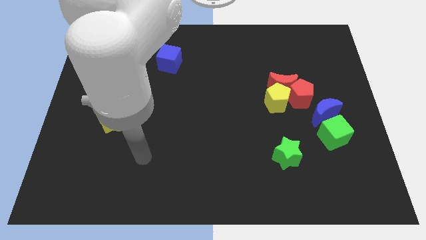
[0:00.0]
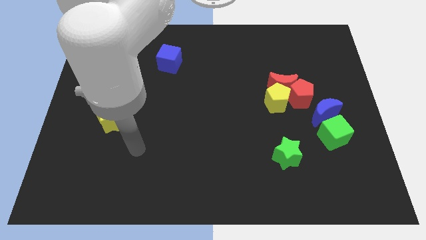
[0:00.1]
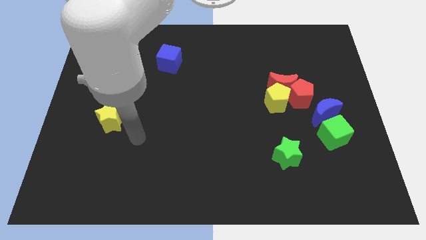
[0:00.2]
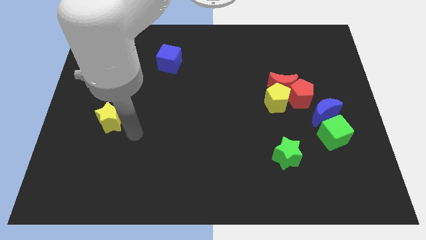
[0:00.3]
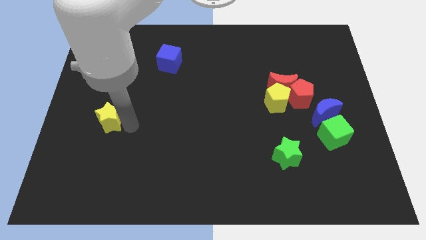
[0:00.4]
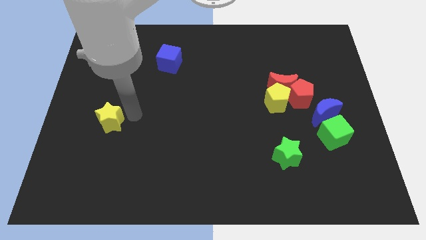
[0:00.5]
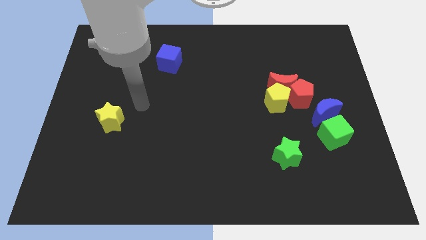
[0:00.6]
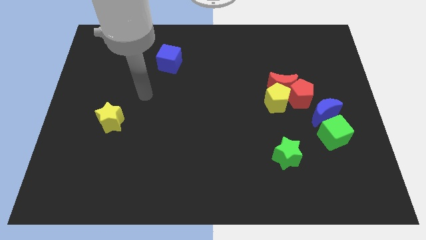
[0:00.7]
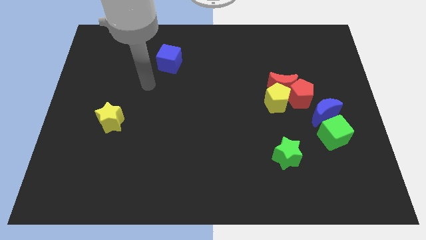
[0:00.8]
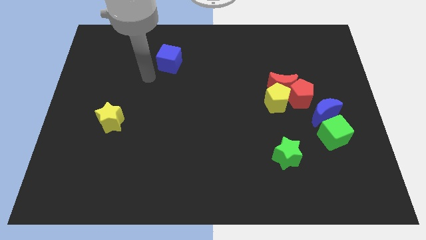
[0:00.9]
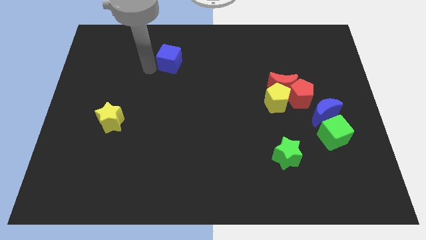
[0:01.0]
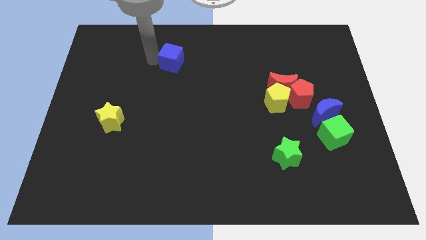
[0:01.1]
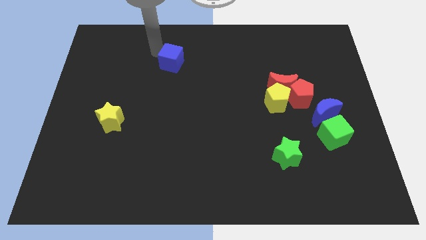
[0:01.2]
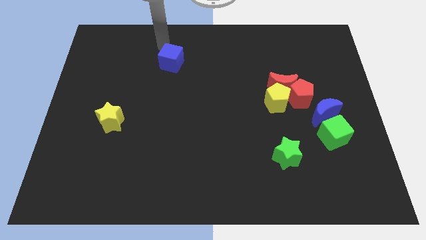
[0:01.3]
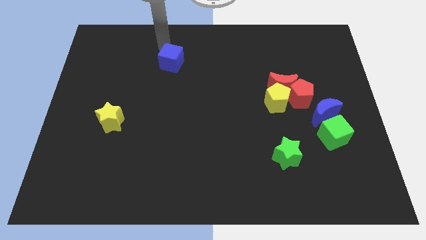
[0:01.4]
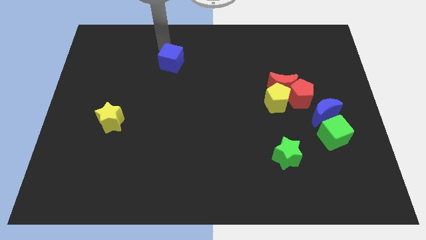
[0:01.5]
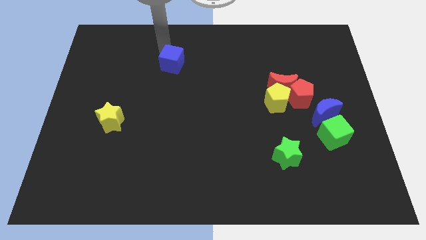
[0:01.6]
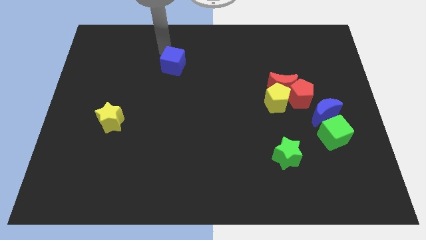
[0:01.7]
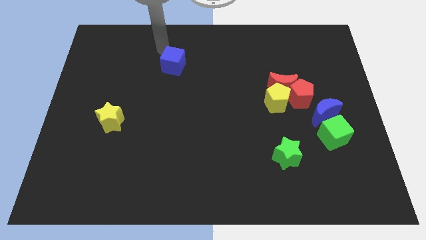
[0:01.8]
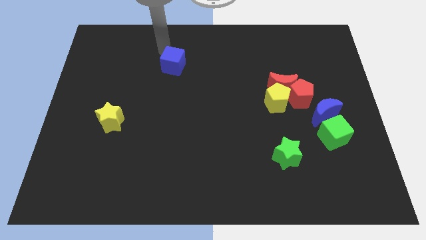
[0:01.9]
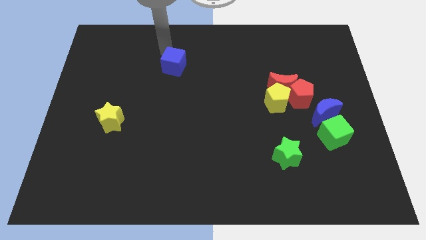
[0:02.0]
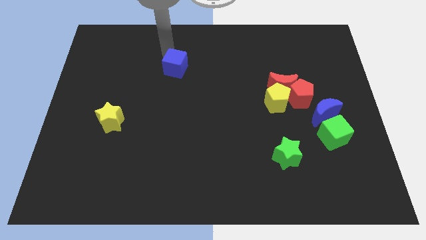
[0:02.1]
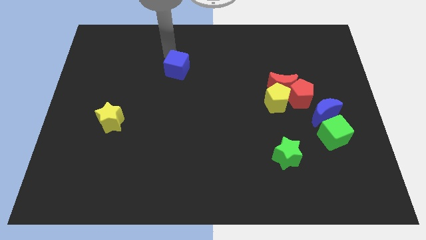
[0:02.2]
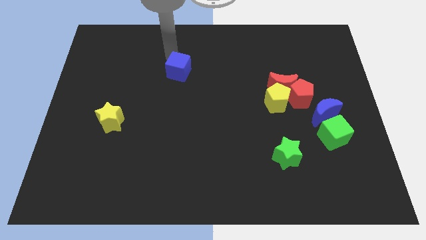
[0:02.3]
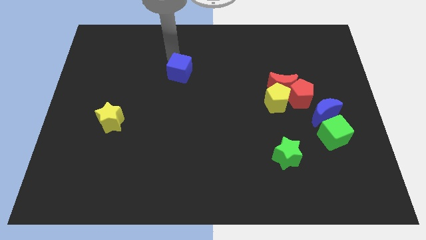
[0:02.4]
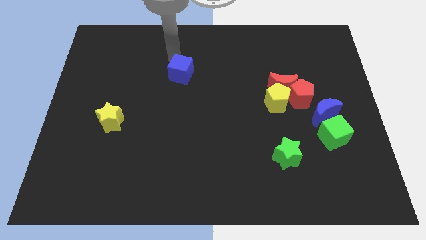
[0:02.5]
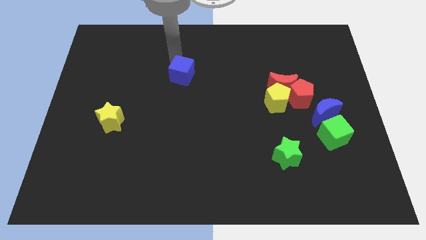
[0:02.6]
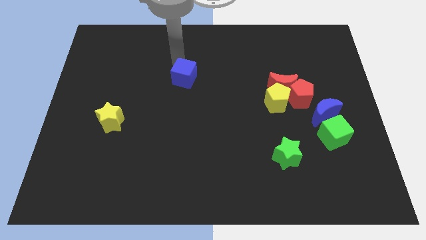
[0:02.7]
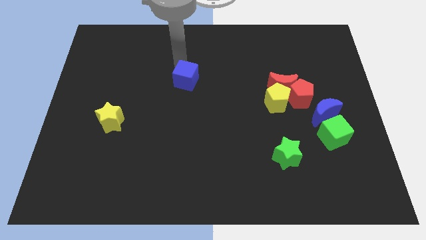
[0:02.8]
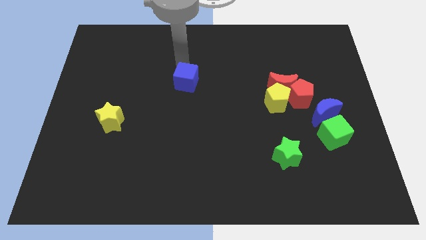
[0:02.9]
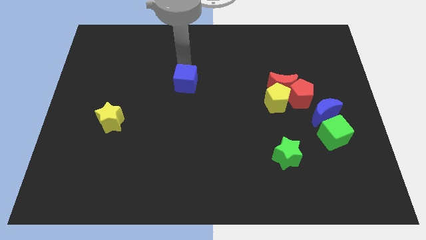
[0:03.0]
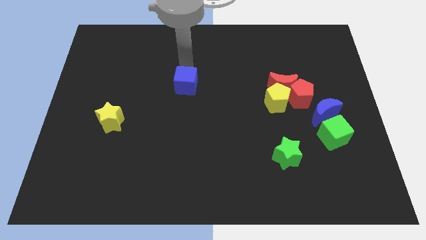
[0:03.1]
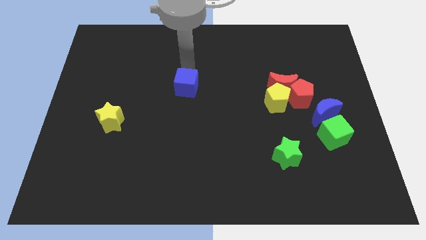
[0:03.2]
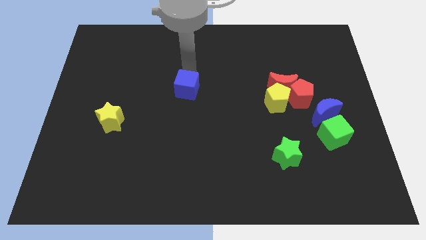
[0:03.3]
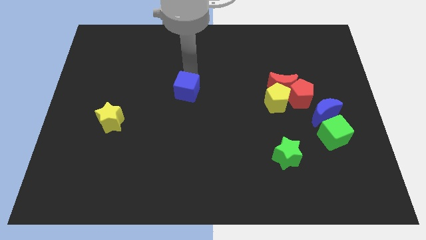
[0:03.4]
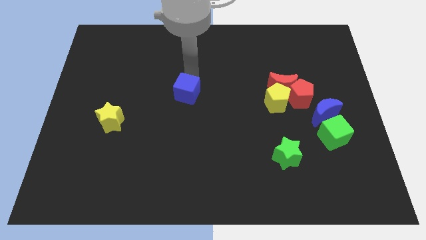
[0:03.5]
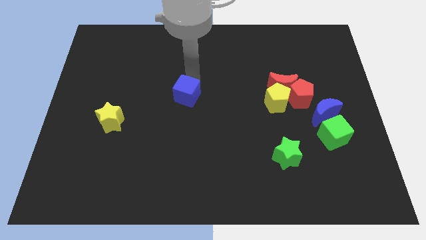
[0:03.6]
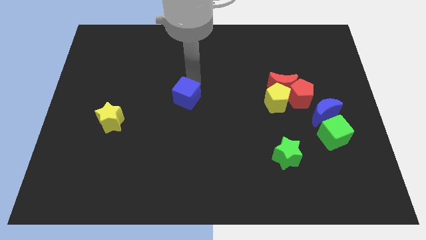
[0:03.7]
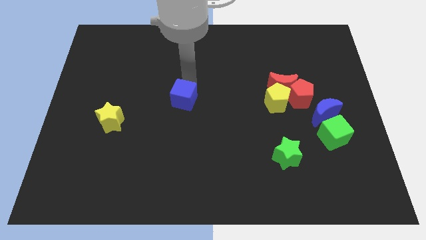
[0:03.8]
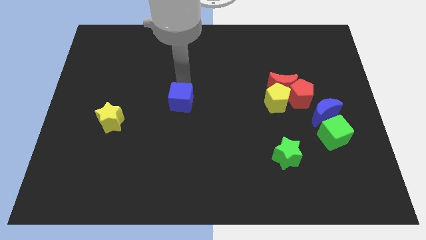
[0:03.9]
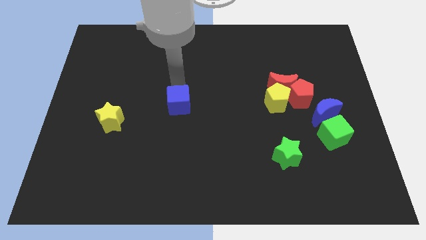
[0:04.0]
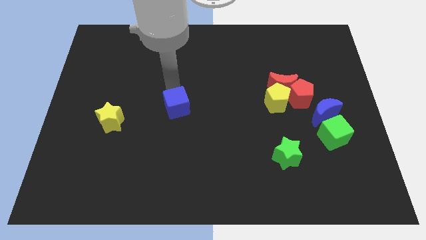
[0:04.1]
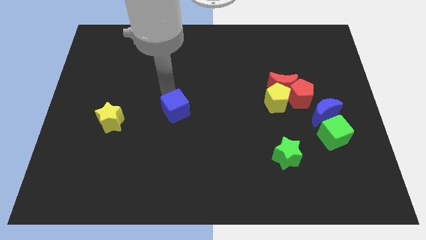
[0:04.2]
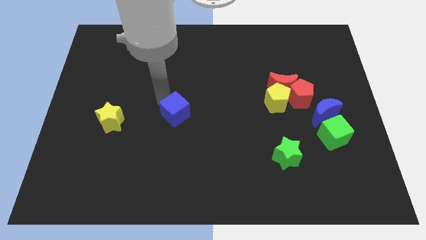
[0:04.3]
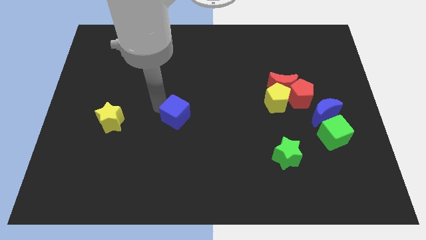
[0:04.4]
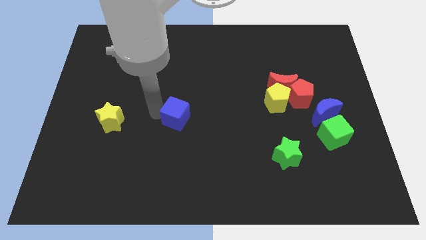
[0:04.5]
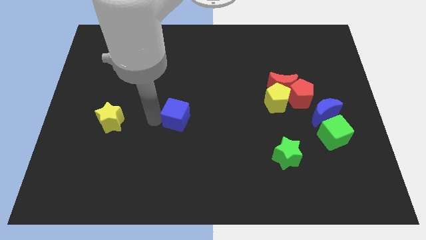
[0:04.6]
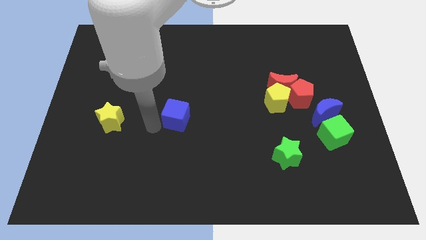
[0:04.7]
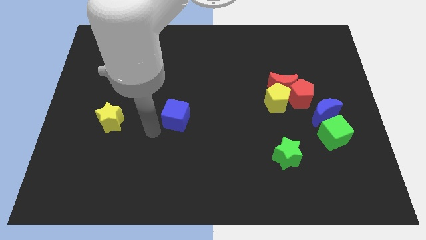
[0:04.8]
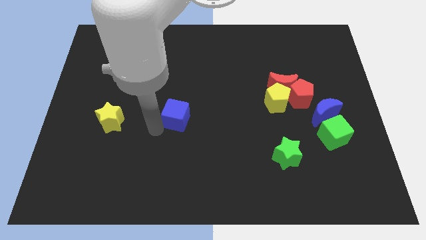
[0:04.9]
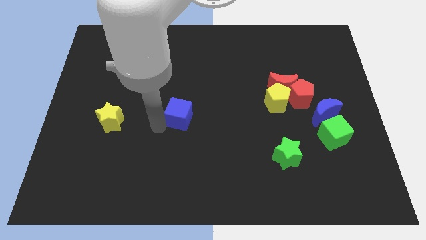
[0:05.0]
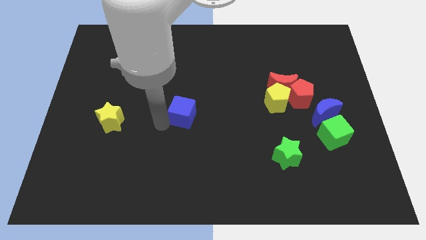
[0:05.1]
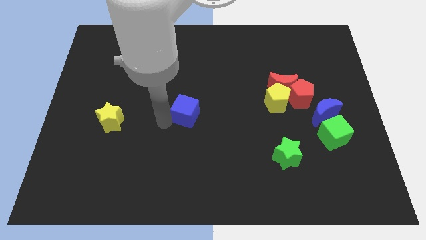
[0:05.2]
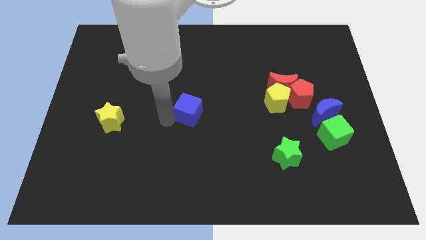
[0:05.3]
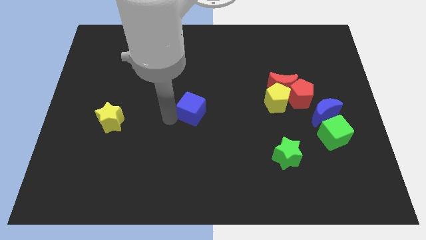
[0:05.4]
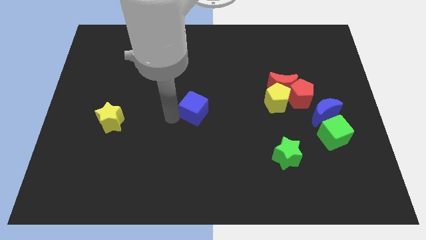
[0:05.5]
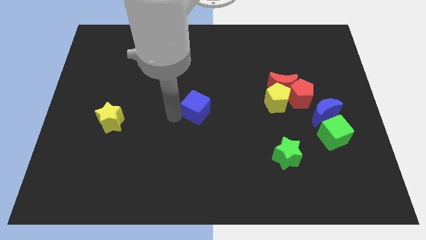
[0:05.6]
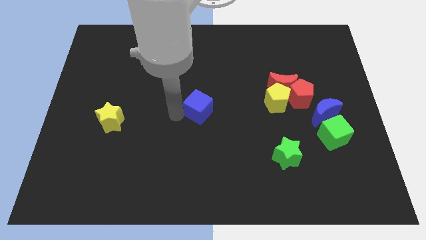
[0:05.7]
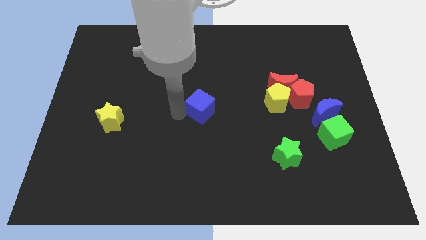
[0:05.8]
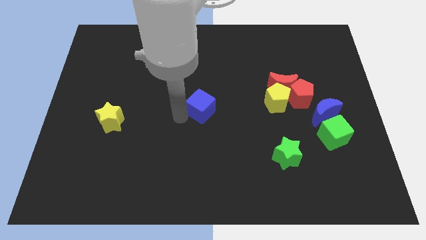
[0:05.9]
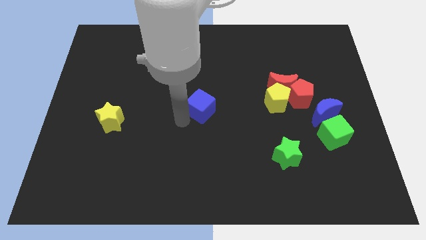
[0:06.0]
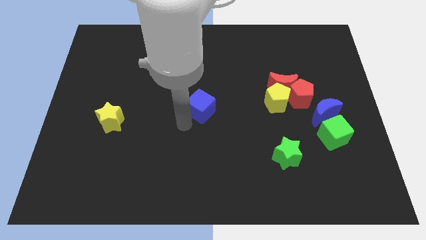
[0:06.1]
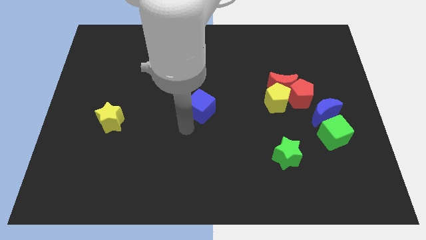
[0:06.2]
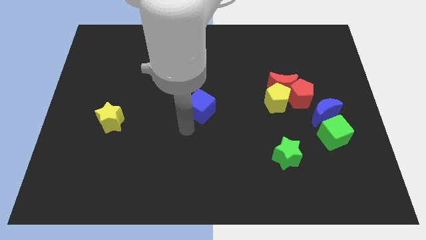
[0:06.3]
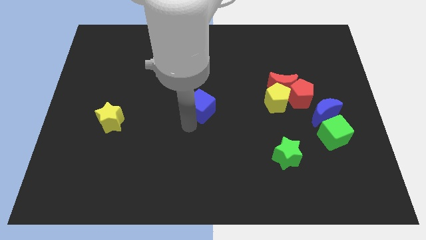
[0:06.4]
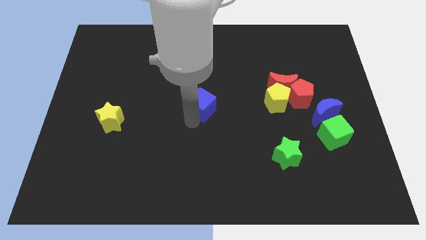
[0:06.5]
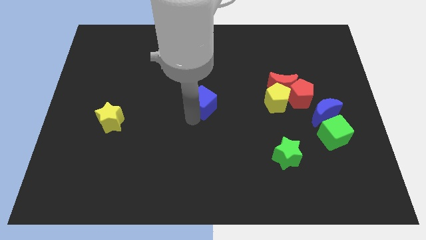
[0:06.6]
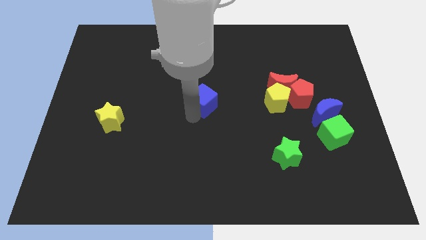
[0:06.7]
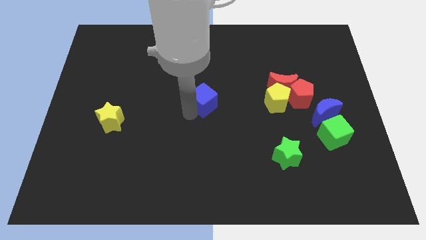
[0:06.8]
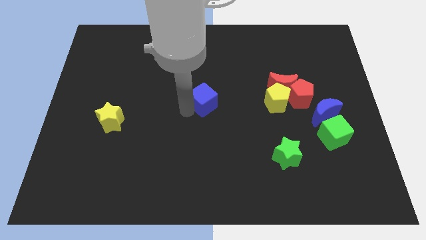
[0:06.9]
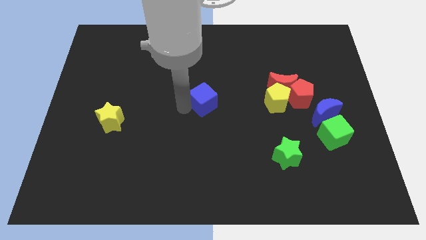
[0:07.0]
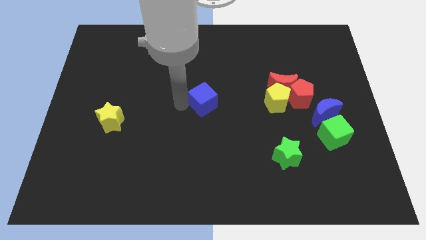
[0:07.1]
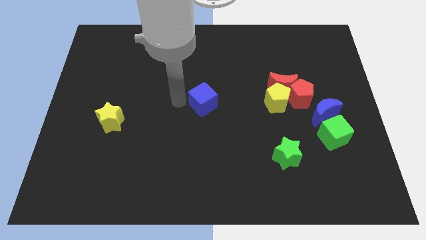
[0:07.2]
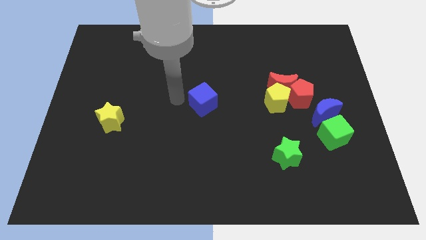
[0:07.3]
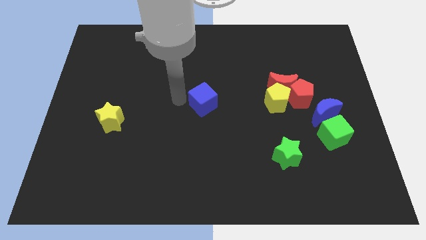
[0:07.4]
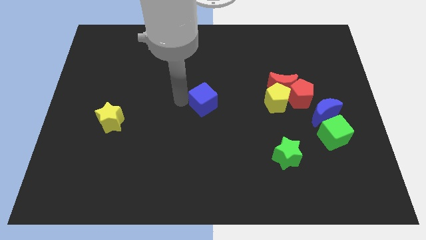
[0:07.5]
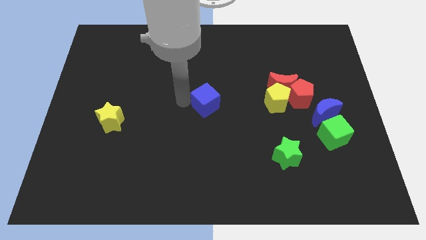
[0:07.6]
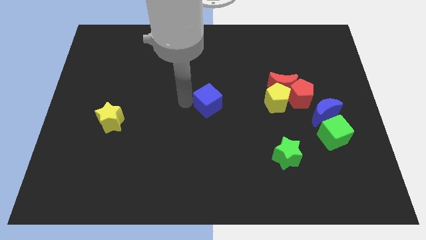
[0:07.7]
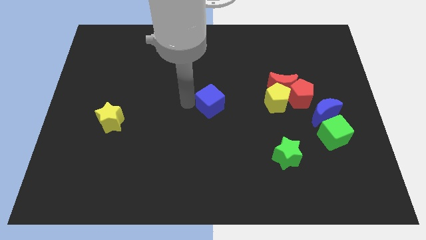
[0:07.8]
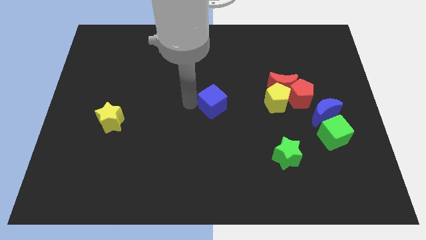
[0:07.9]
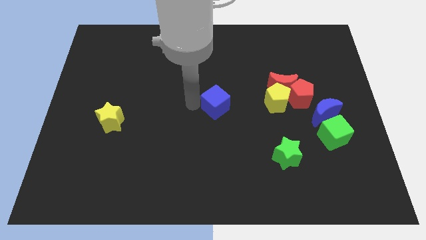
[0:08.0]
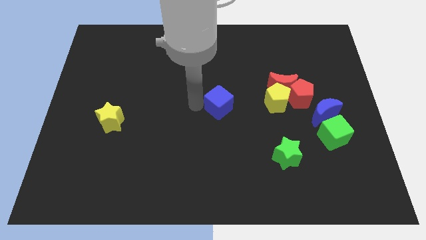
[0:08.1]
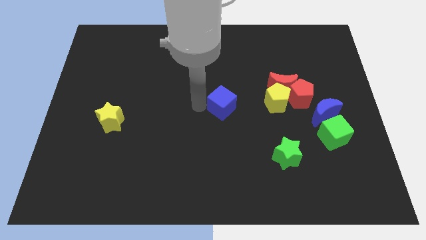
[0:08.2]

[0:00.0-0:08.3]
move the blue cube downwards and then right

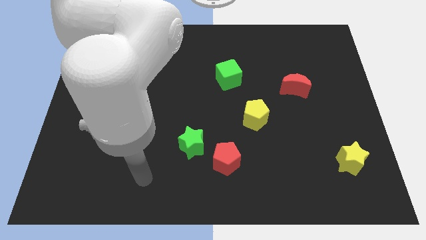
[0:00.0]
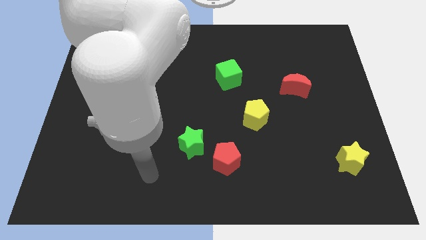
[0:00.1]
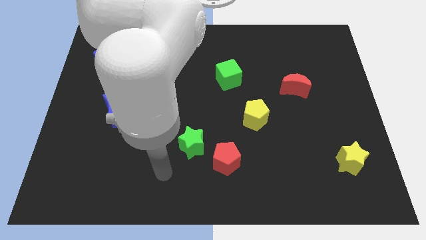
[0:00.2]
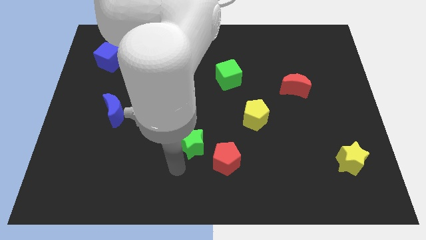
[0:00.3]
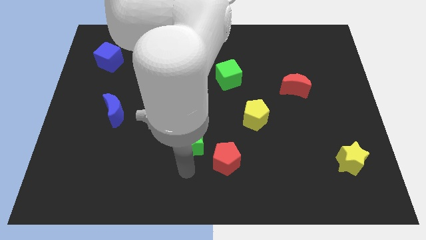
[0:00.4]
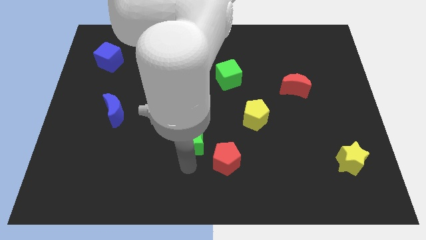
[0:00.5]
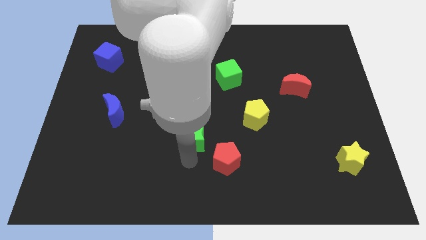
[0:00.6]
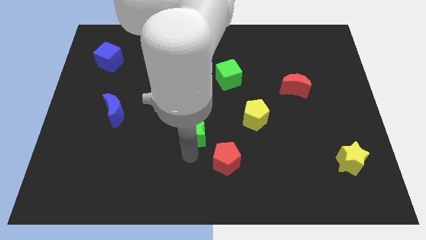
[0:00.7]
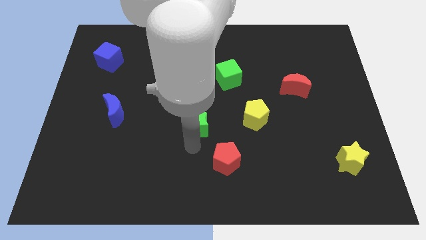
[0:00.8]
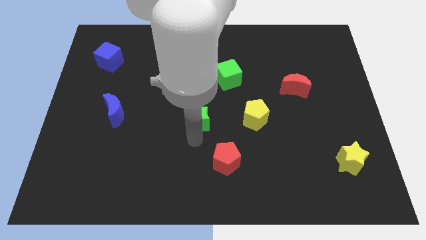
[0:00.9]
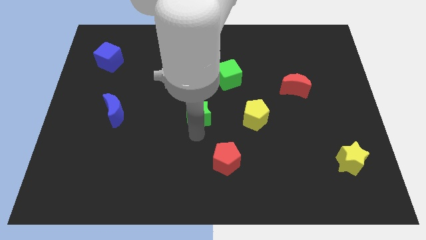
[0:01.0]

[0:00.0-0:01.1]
move the green star up a little
